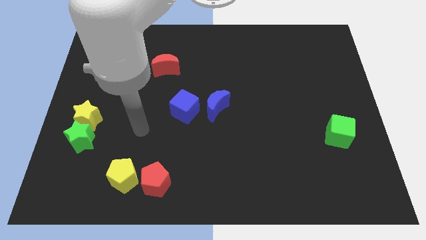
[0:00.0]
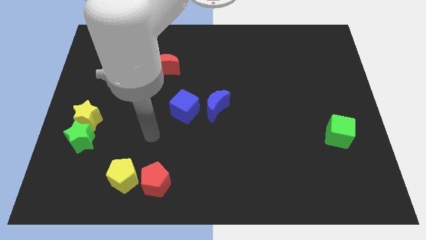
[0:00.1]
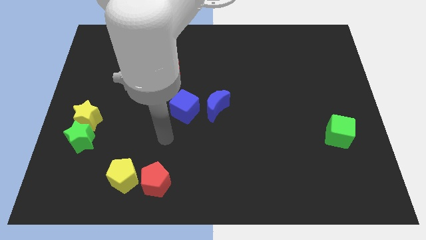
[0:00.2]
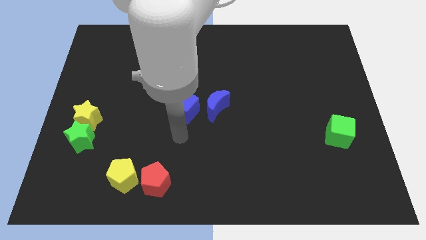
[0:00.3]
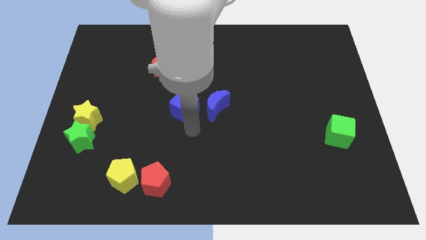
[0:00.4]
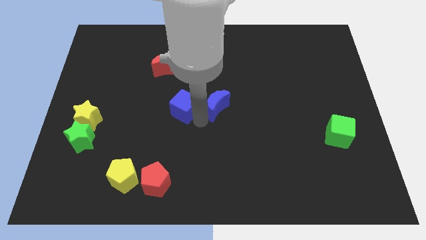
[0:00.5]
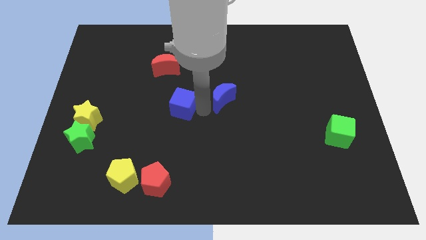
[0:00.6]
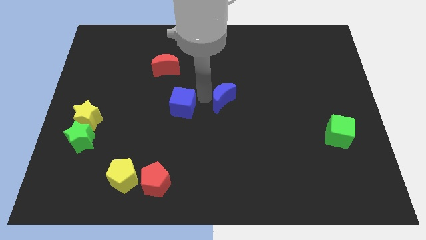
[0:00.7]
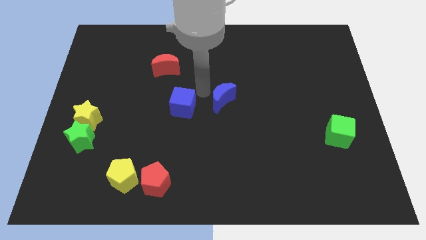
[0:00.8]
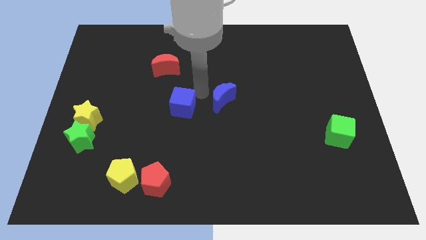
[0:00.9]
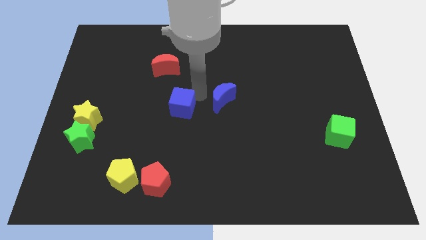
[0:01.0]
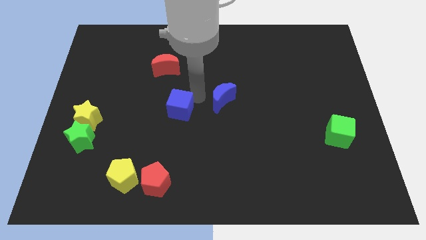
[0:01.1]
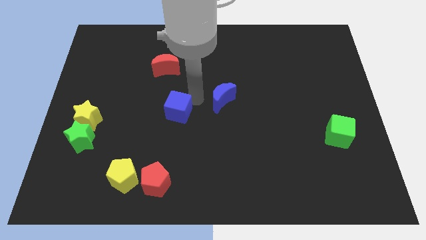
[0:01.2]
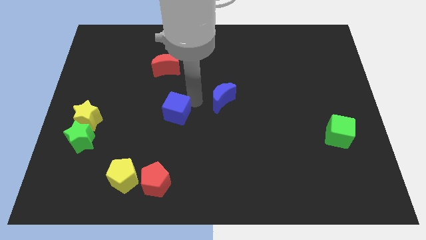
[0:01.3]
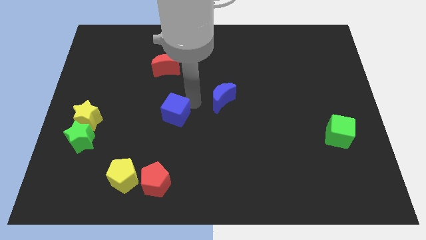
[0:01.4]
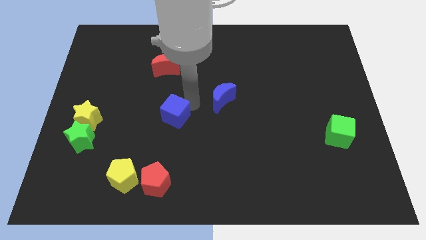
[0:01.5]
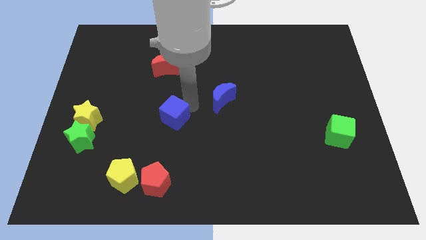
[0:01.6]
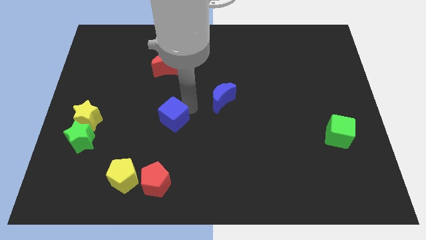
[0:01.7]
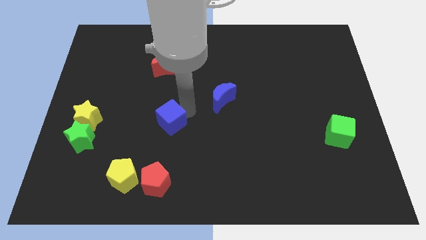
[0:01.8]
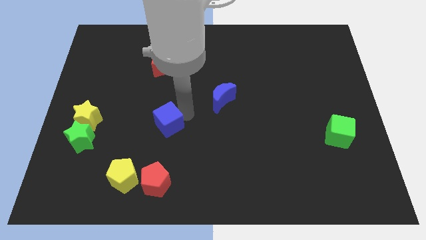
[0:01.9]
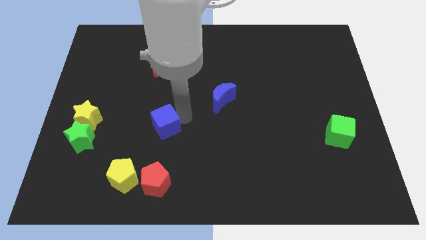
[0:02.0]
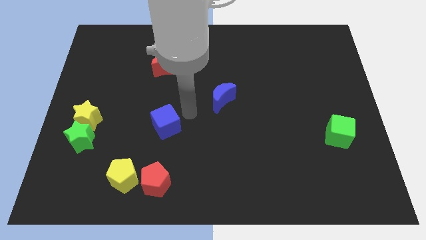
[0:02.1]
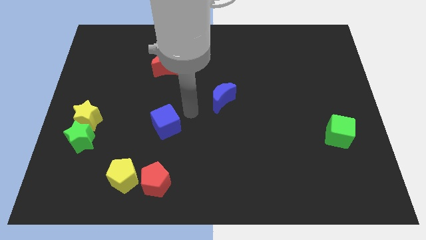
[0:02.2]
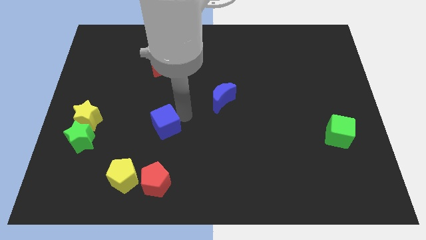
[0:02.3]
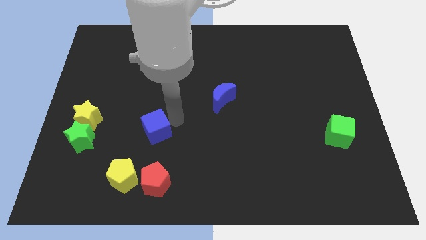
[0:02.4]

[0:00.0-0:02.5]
slide the blue cube downwards and then left somewhat

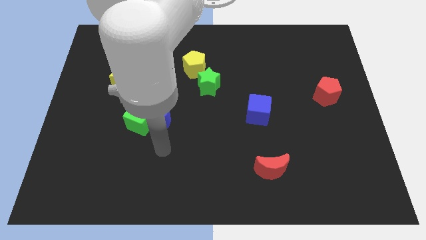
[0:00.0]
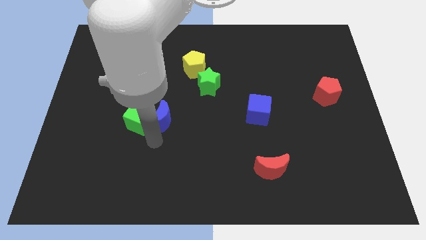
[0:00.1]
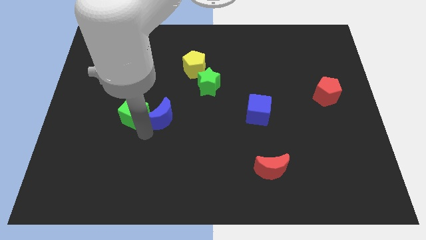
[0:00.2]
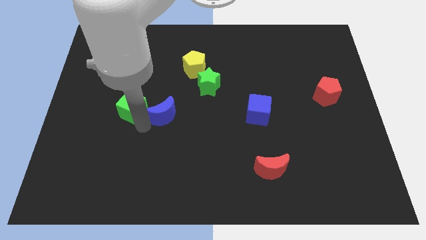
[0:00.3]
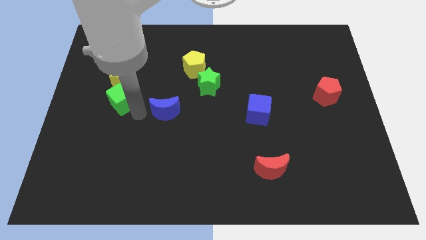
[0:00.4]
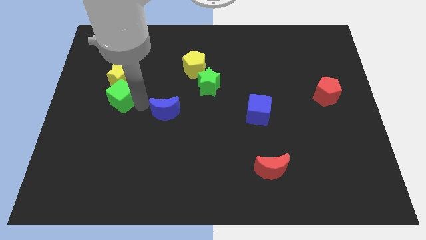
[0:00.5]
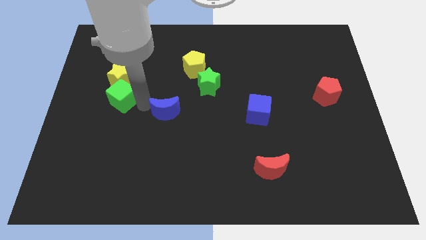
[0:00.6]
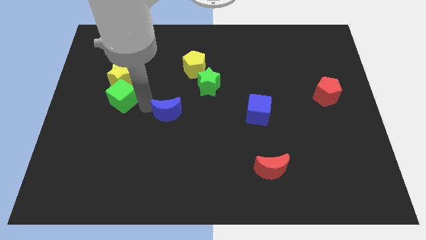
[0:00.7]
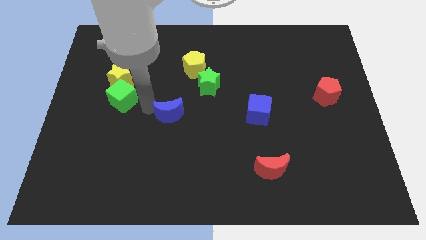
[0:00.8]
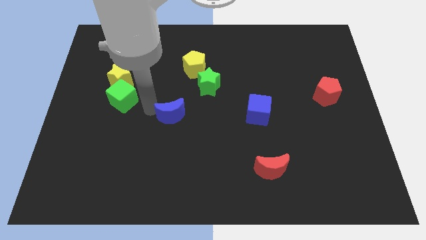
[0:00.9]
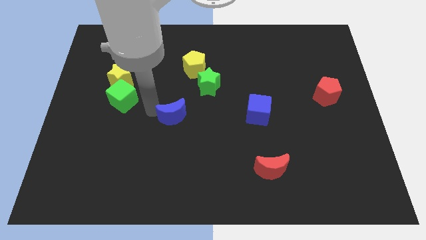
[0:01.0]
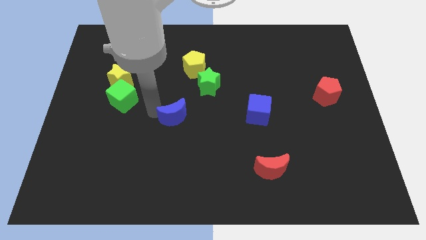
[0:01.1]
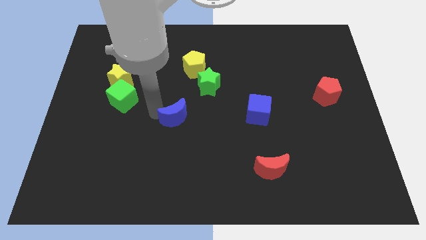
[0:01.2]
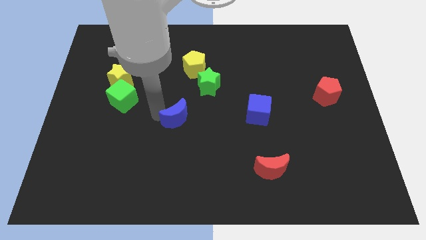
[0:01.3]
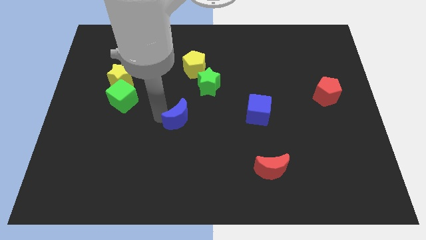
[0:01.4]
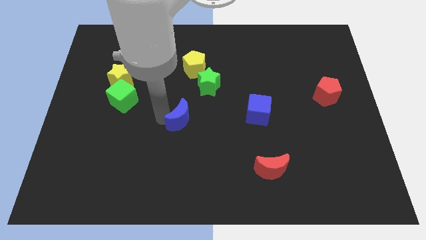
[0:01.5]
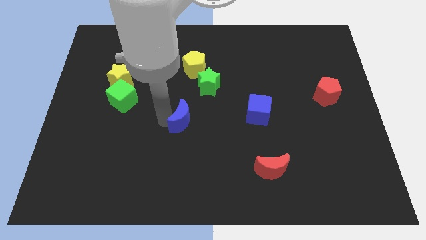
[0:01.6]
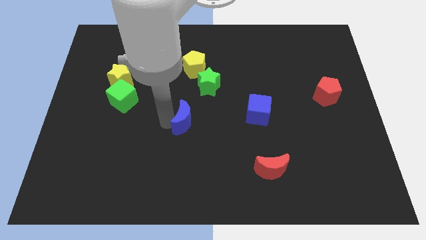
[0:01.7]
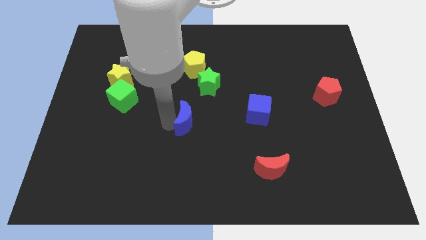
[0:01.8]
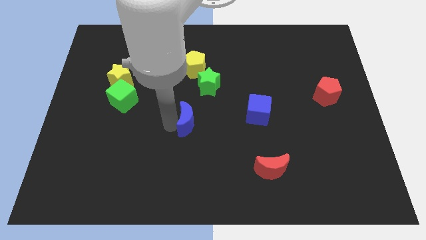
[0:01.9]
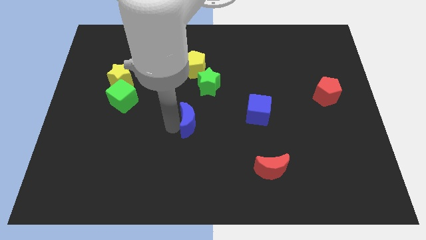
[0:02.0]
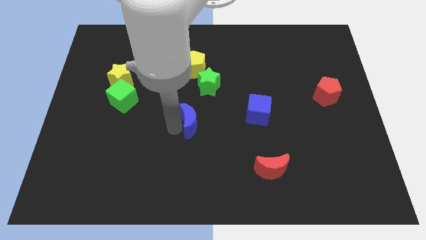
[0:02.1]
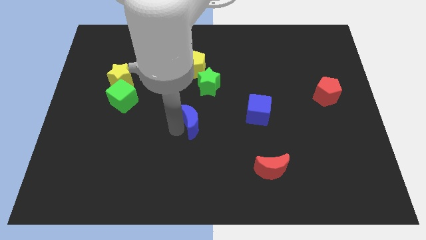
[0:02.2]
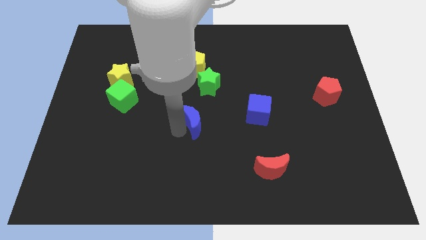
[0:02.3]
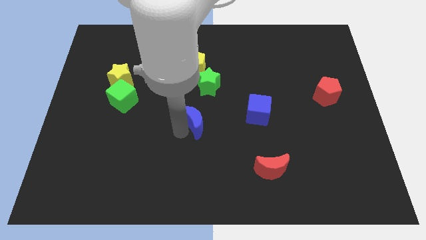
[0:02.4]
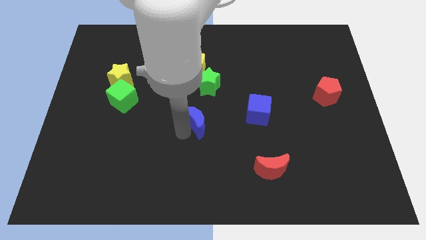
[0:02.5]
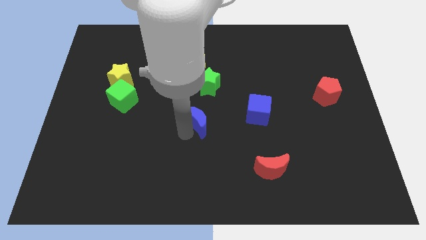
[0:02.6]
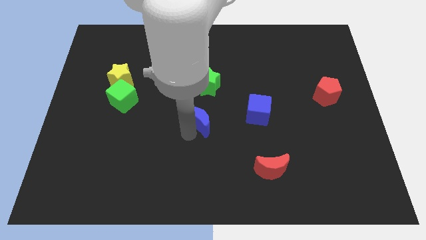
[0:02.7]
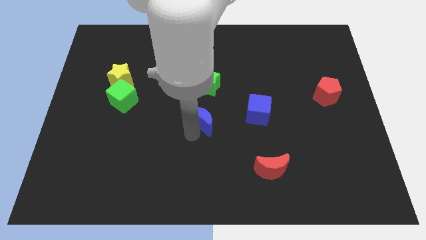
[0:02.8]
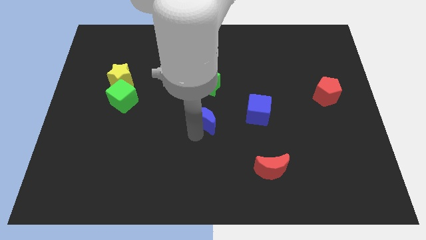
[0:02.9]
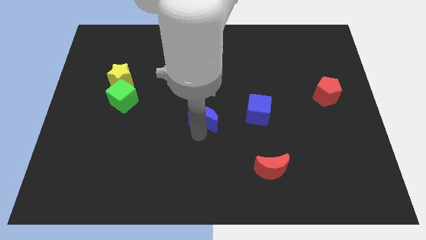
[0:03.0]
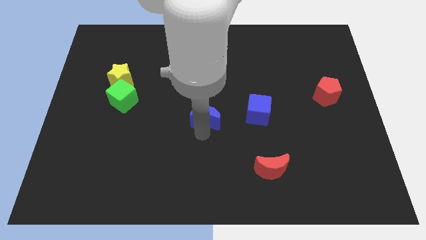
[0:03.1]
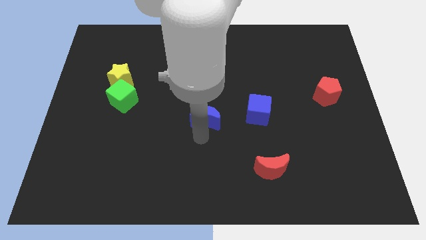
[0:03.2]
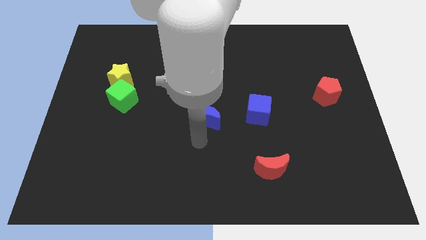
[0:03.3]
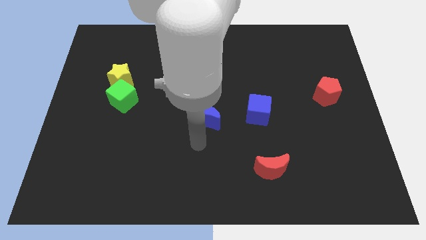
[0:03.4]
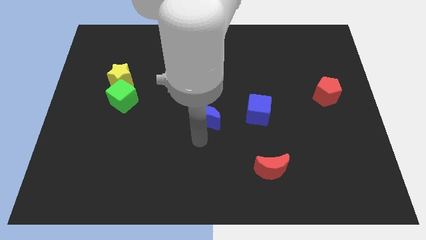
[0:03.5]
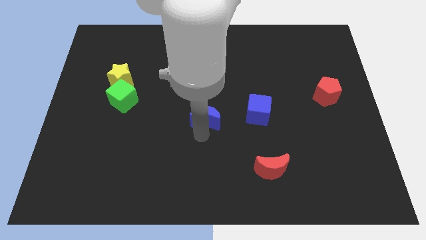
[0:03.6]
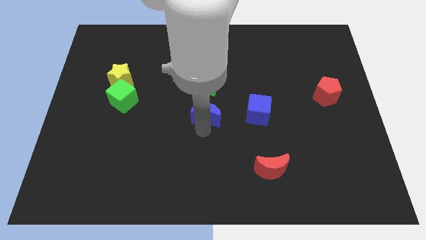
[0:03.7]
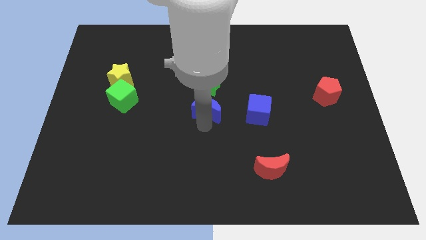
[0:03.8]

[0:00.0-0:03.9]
slide the blue moon diagonally up and right slightly

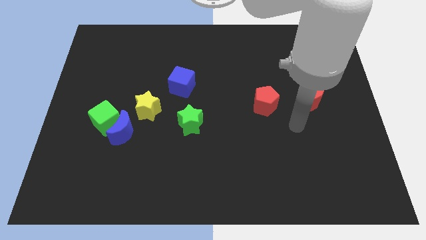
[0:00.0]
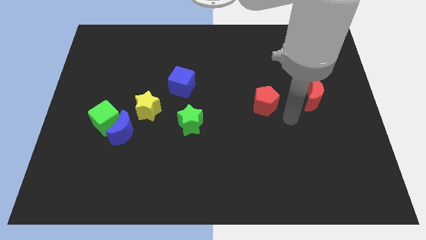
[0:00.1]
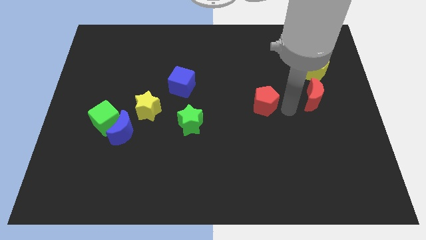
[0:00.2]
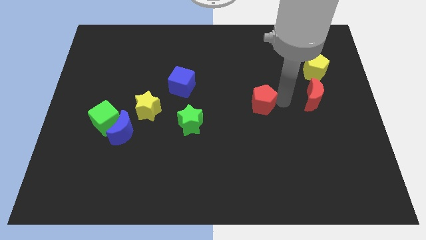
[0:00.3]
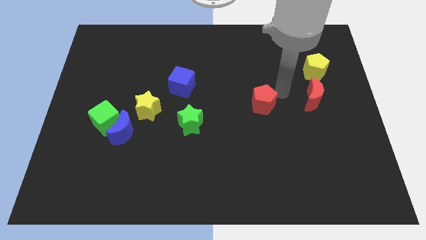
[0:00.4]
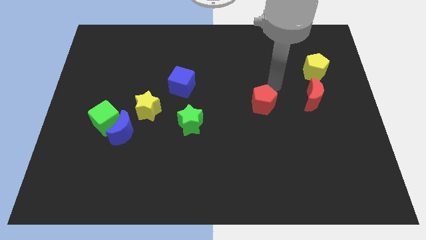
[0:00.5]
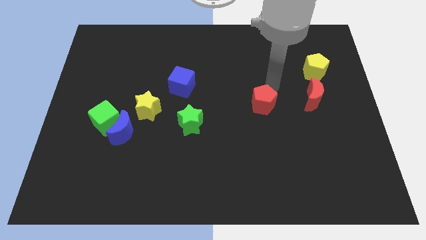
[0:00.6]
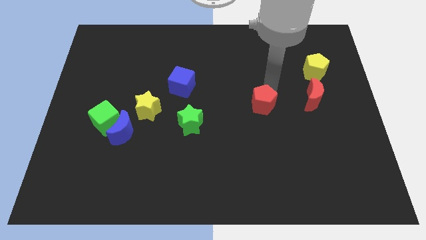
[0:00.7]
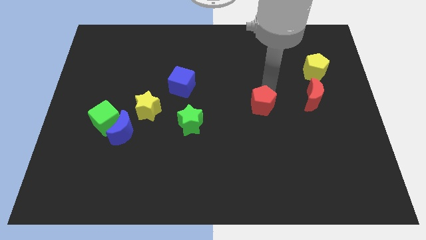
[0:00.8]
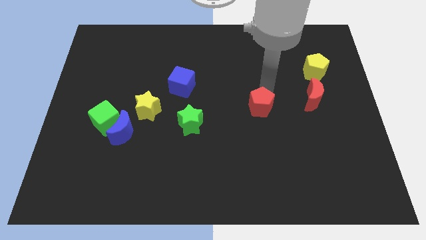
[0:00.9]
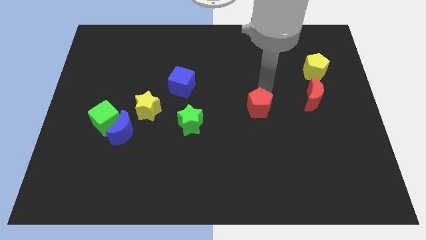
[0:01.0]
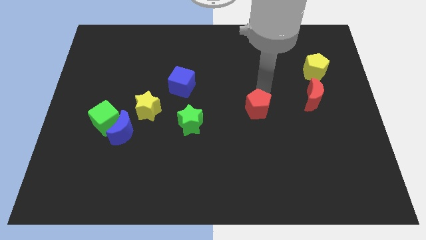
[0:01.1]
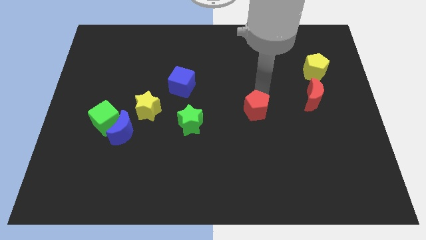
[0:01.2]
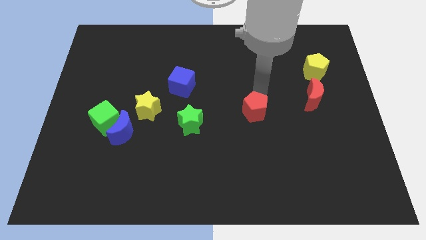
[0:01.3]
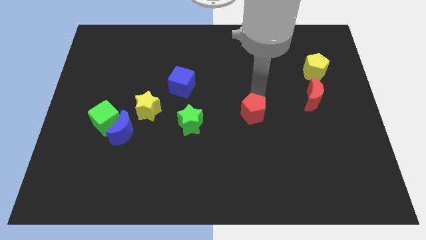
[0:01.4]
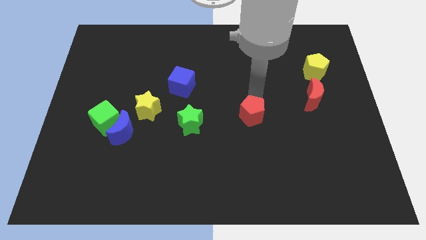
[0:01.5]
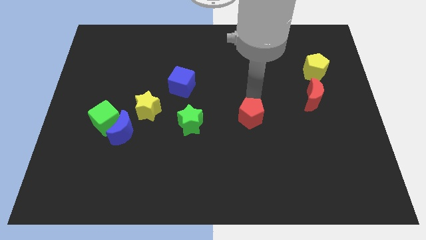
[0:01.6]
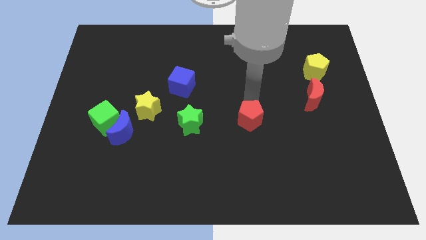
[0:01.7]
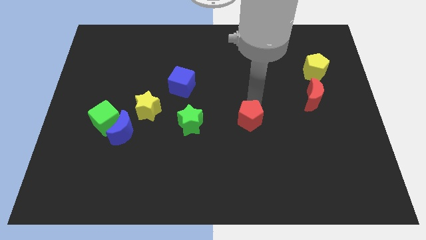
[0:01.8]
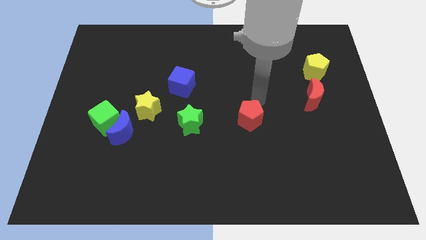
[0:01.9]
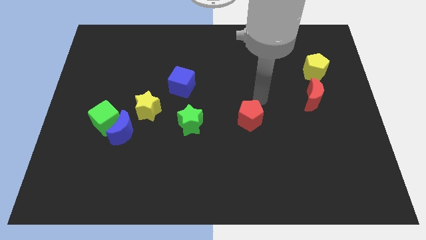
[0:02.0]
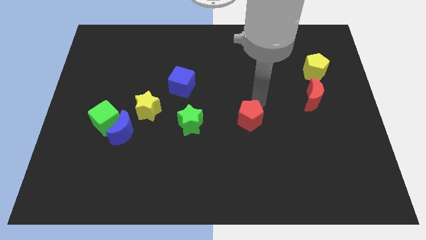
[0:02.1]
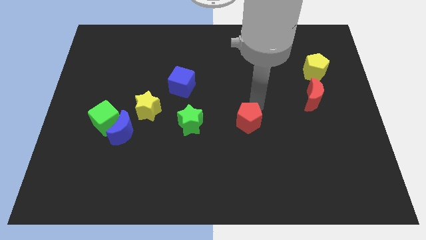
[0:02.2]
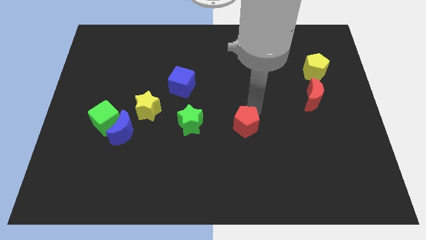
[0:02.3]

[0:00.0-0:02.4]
move the red pentagon downwards and left slightly
